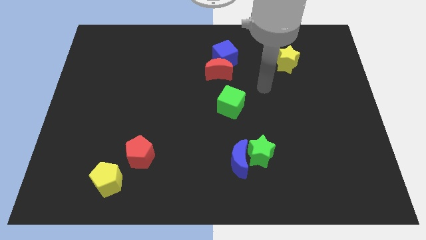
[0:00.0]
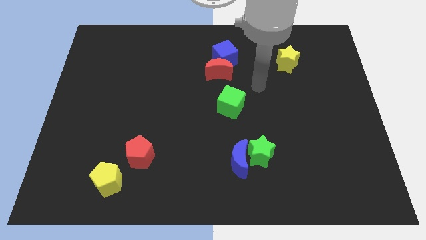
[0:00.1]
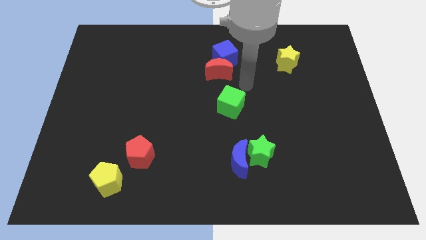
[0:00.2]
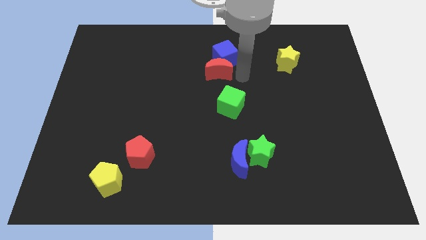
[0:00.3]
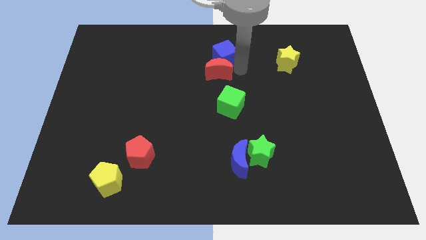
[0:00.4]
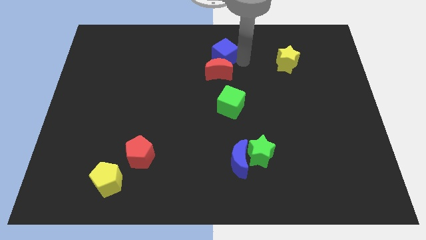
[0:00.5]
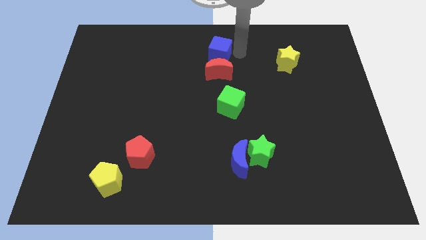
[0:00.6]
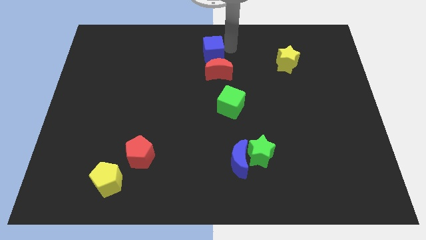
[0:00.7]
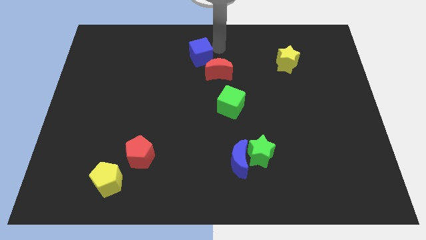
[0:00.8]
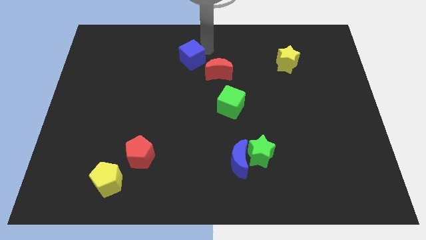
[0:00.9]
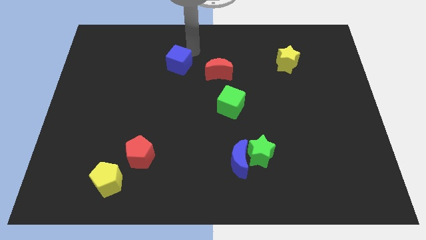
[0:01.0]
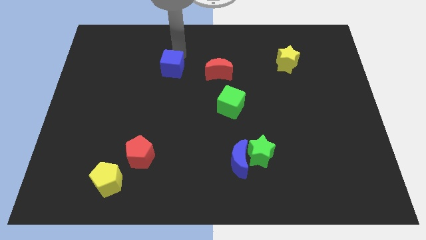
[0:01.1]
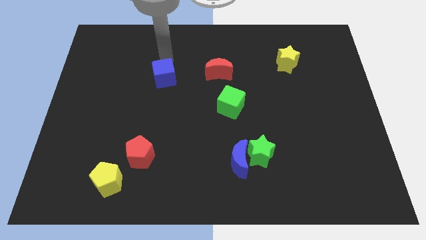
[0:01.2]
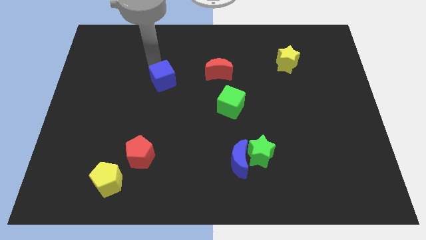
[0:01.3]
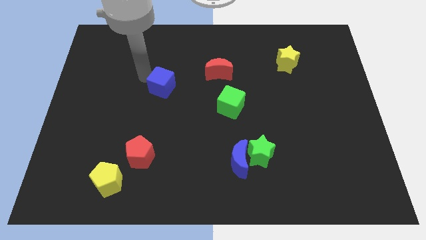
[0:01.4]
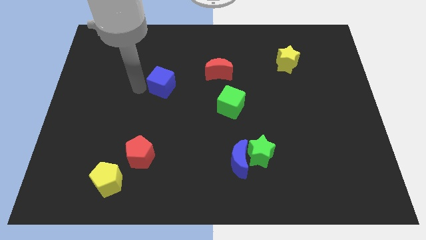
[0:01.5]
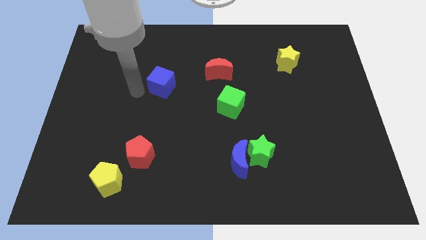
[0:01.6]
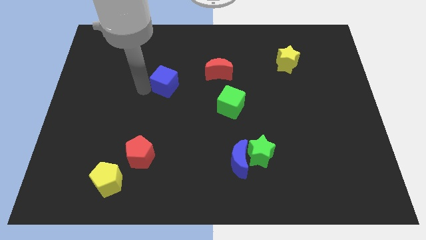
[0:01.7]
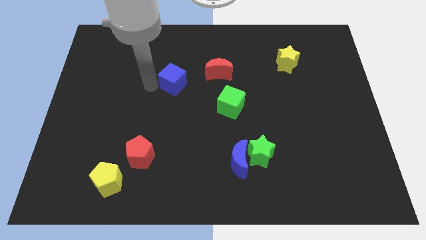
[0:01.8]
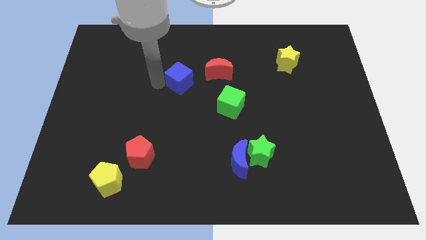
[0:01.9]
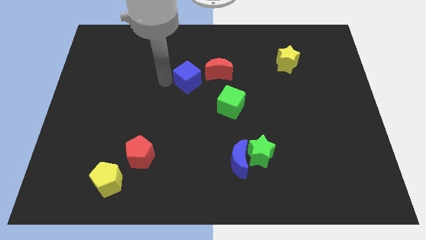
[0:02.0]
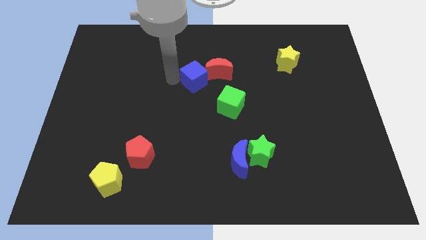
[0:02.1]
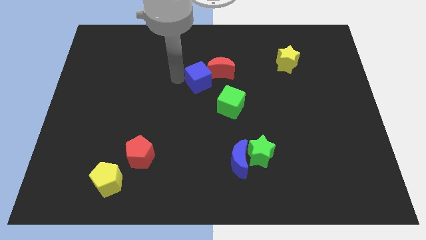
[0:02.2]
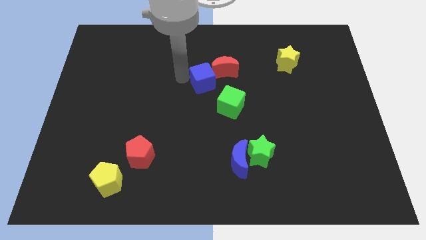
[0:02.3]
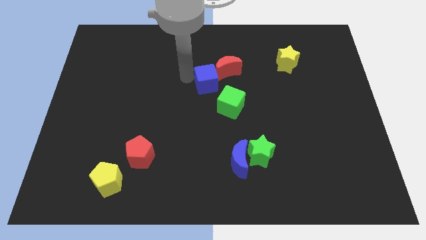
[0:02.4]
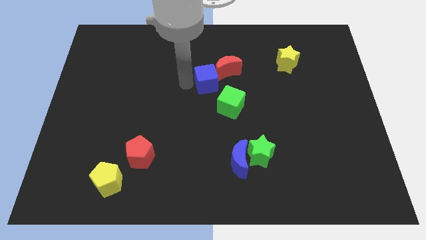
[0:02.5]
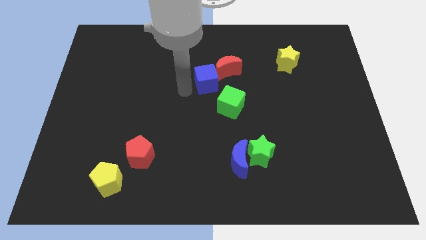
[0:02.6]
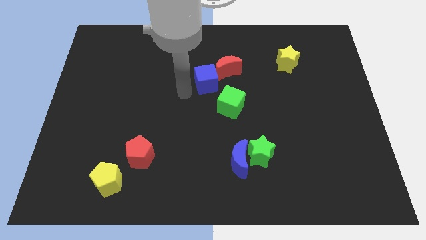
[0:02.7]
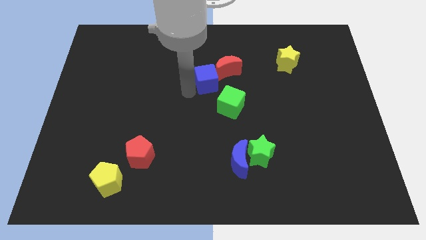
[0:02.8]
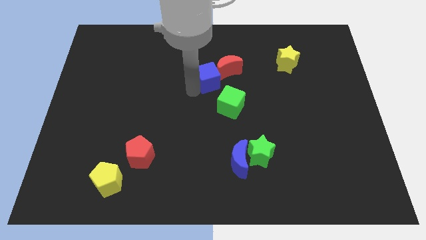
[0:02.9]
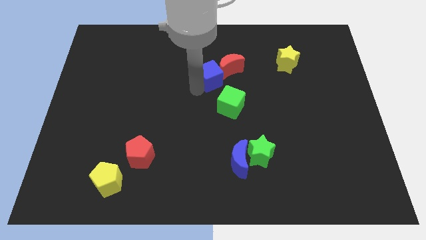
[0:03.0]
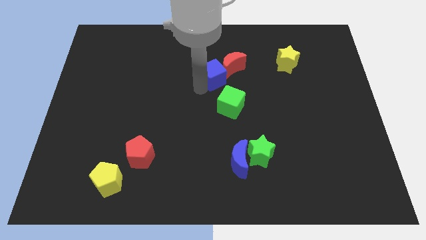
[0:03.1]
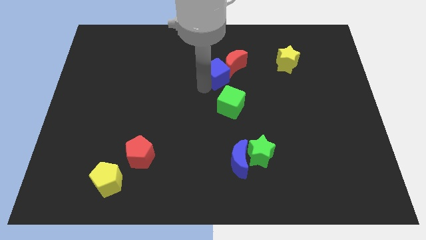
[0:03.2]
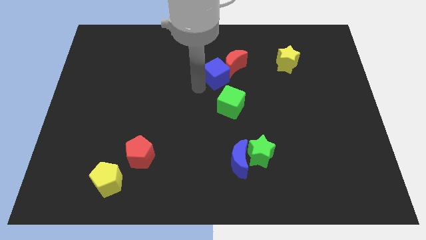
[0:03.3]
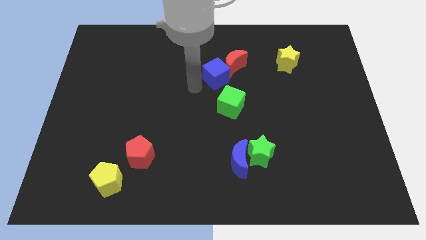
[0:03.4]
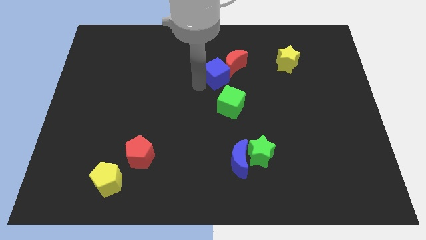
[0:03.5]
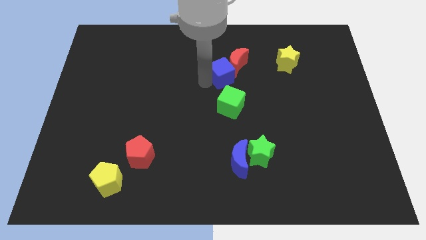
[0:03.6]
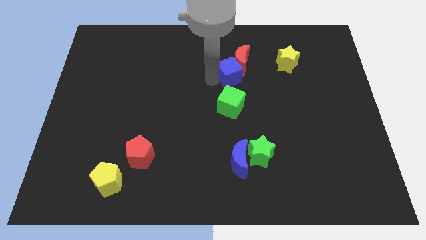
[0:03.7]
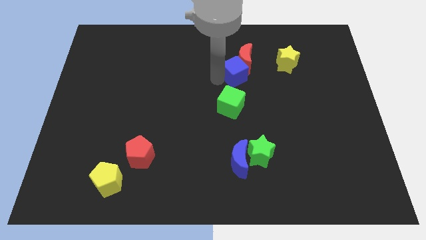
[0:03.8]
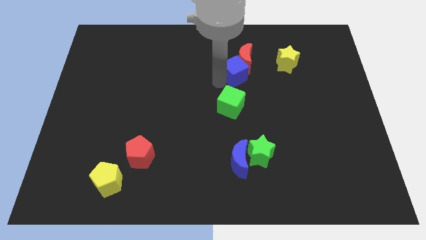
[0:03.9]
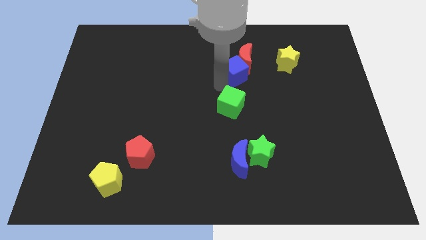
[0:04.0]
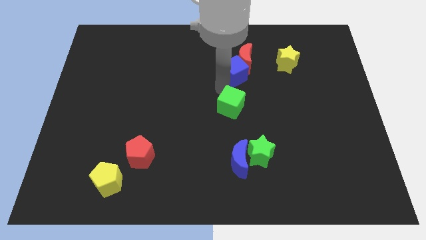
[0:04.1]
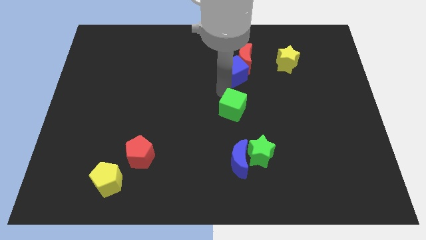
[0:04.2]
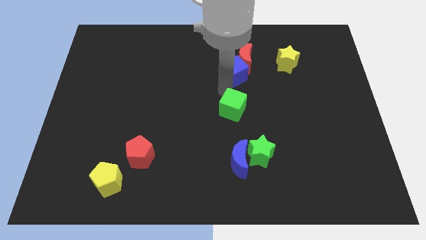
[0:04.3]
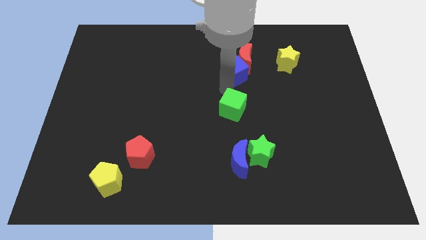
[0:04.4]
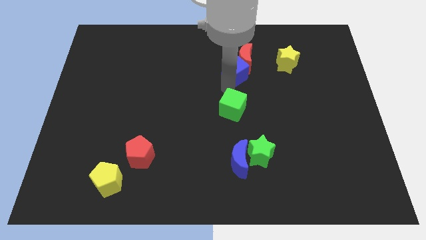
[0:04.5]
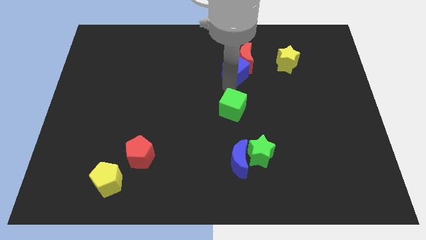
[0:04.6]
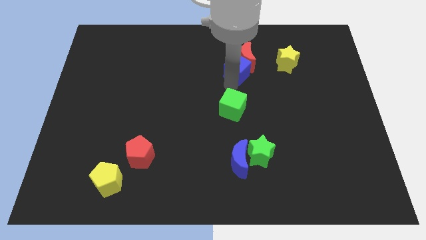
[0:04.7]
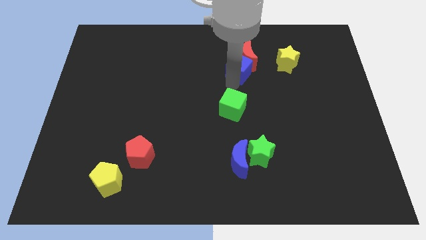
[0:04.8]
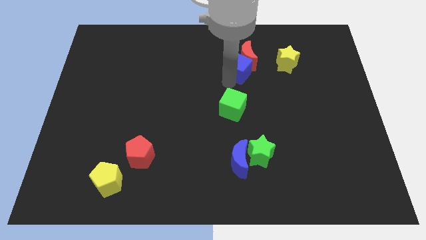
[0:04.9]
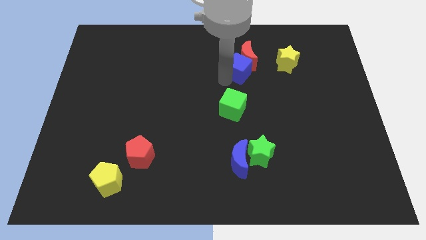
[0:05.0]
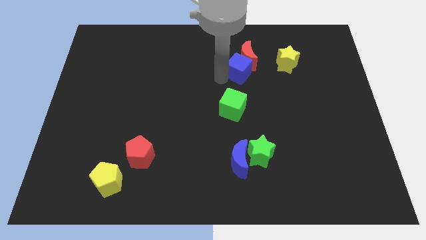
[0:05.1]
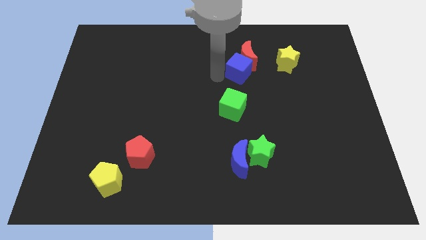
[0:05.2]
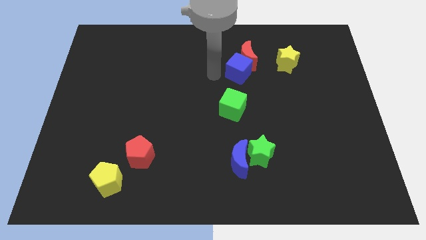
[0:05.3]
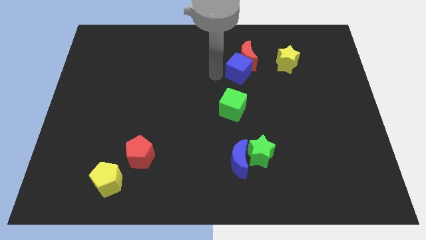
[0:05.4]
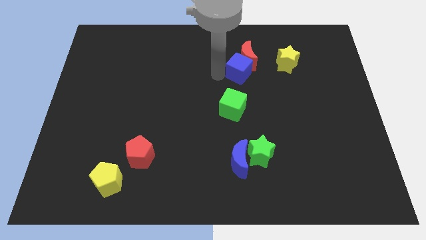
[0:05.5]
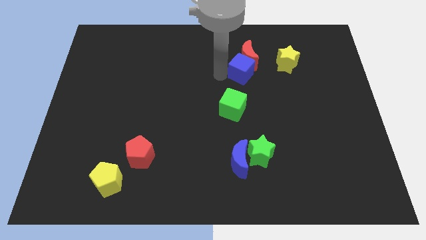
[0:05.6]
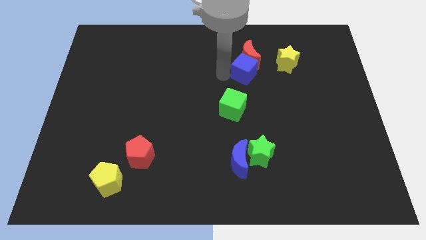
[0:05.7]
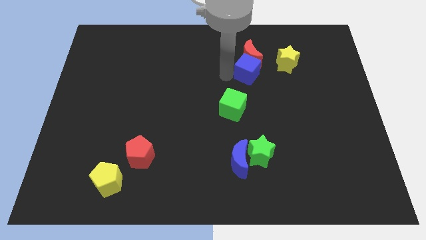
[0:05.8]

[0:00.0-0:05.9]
slide the blue cube diagonally down and to the left of the yellow star

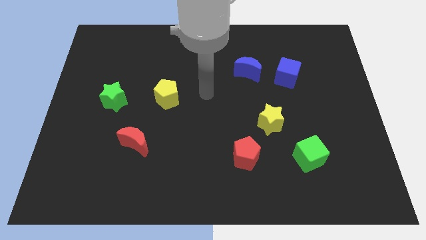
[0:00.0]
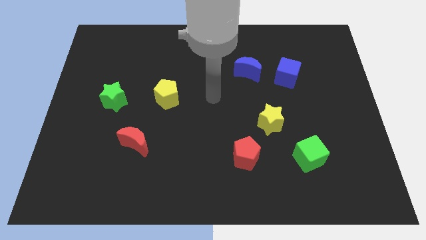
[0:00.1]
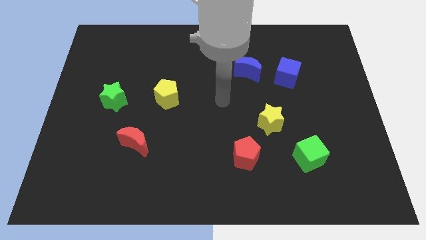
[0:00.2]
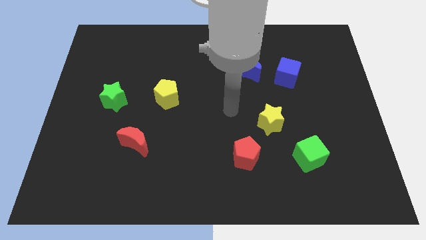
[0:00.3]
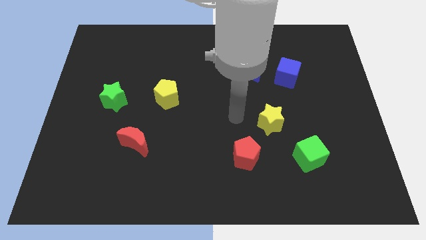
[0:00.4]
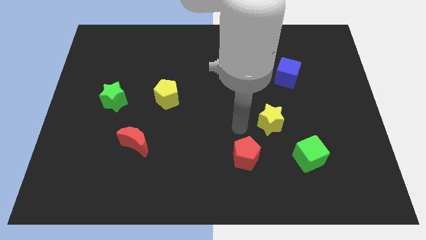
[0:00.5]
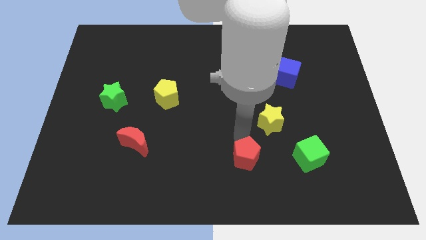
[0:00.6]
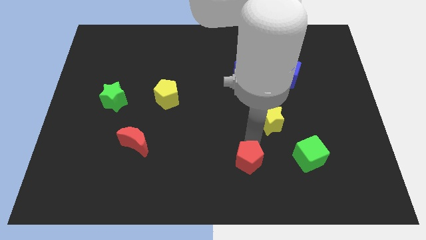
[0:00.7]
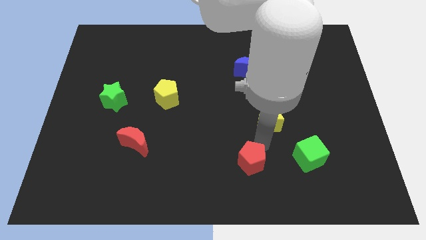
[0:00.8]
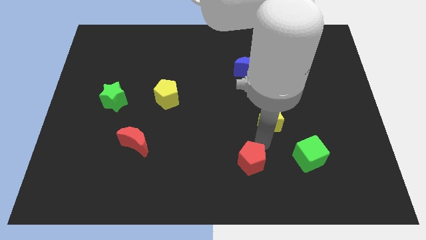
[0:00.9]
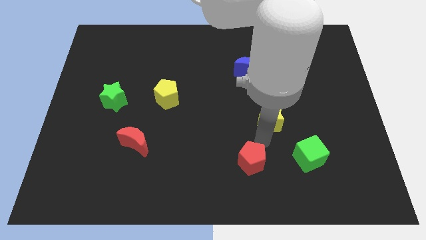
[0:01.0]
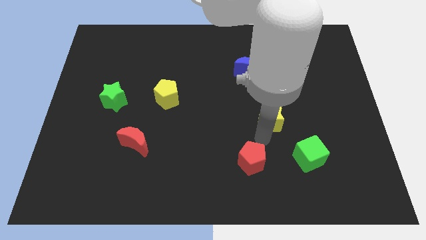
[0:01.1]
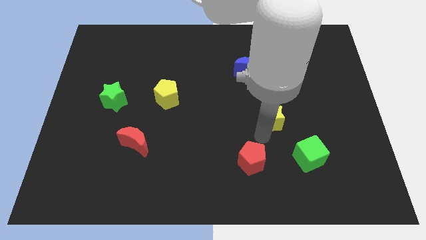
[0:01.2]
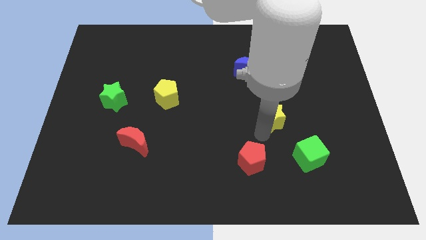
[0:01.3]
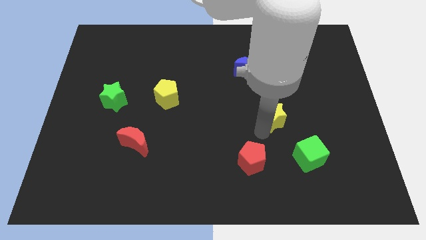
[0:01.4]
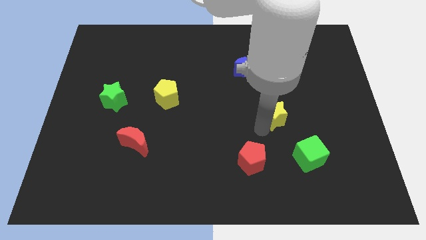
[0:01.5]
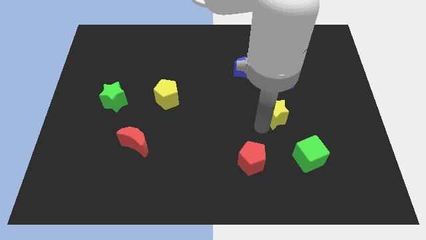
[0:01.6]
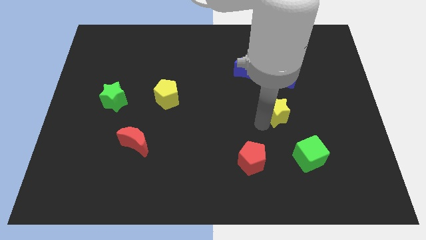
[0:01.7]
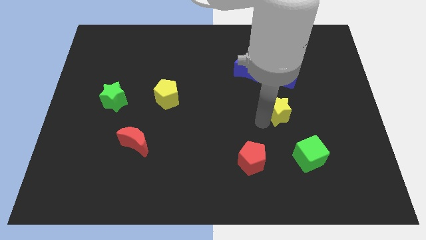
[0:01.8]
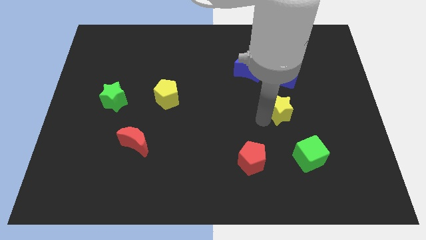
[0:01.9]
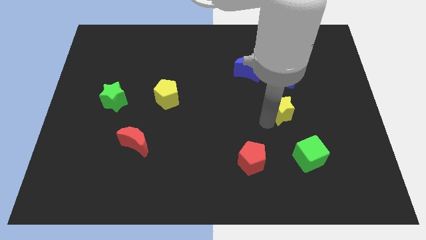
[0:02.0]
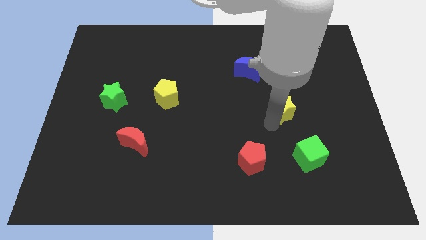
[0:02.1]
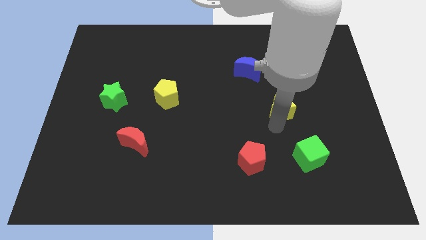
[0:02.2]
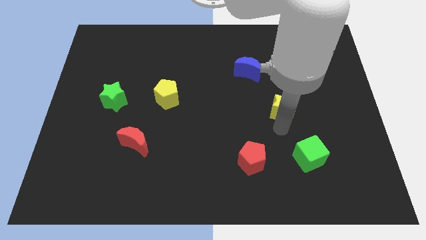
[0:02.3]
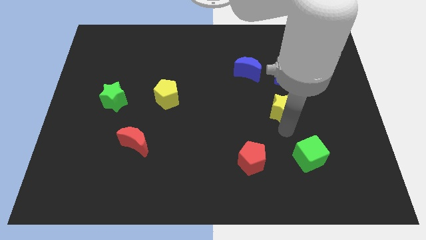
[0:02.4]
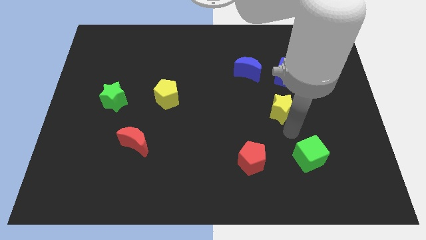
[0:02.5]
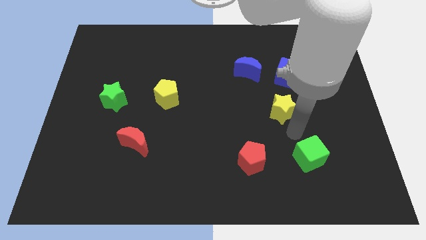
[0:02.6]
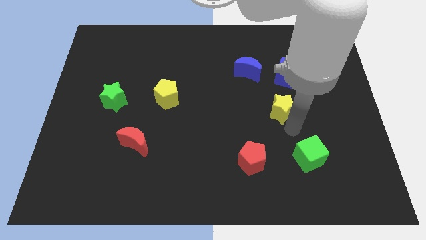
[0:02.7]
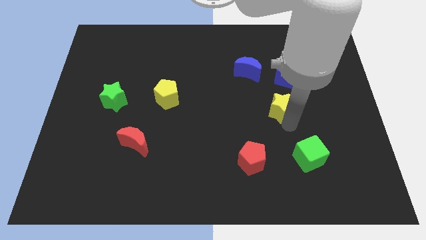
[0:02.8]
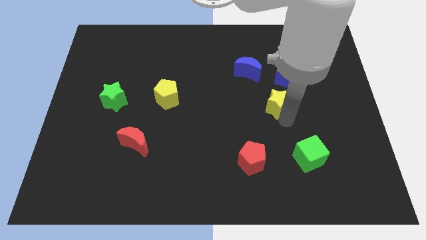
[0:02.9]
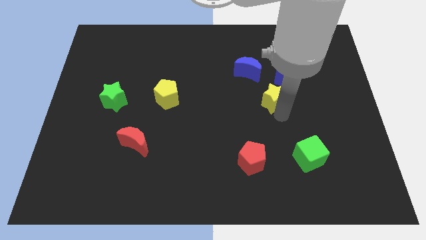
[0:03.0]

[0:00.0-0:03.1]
put the yellow star to the bottom right side of the blue moon
